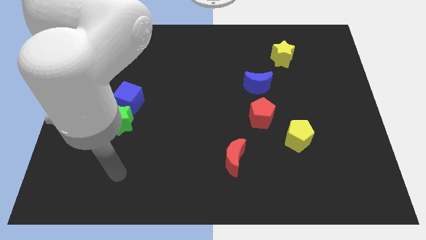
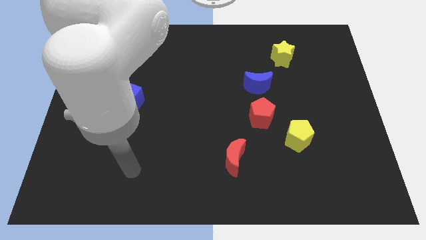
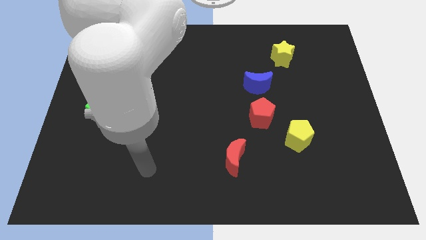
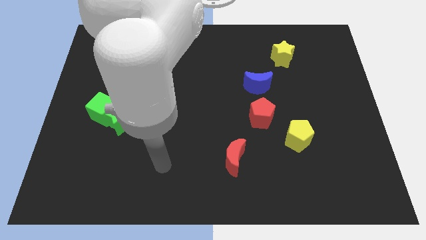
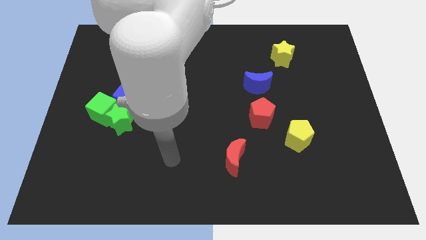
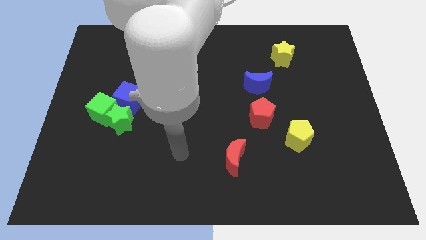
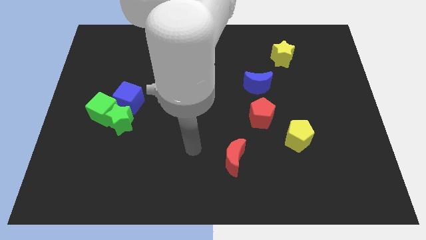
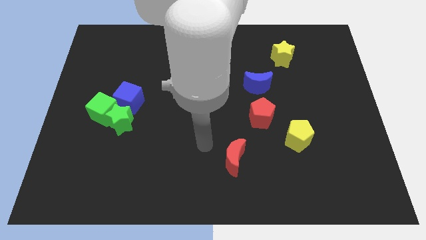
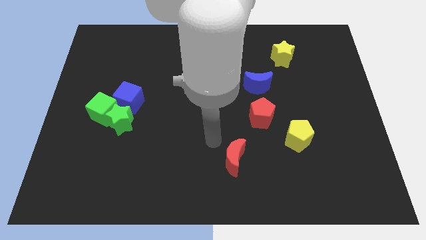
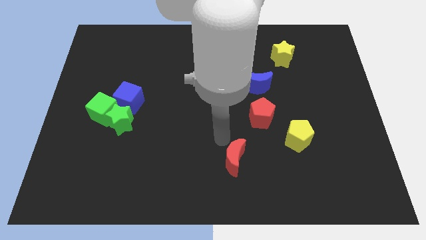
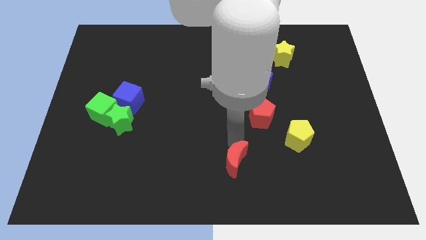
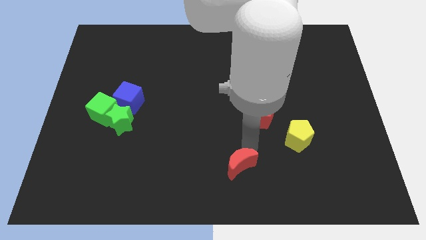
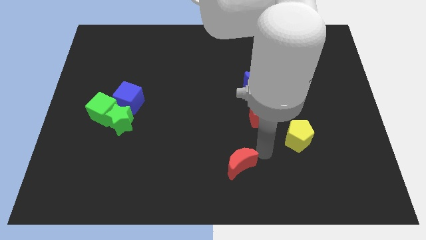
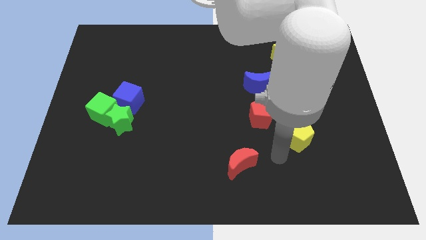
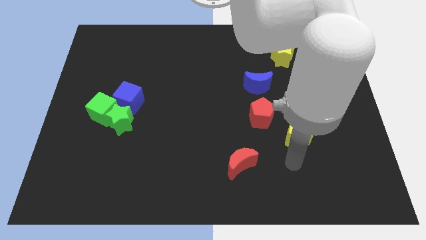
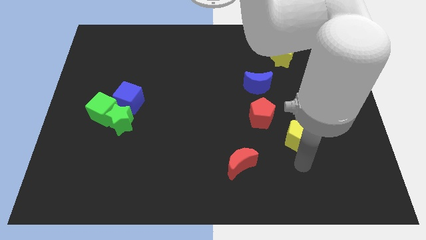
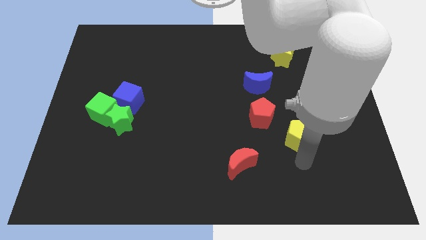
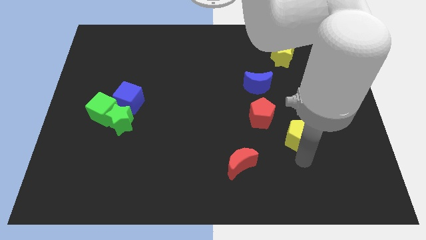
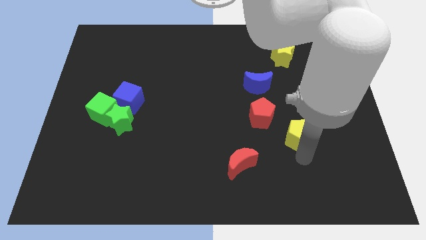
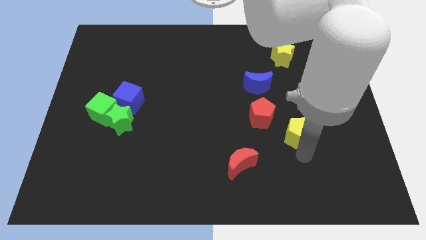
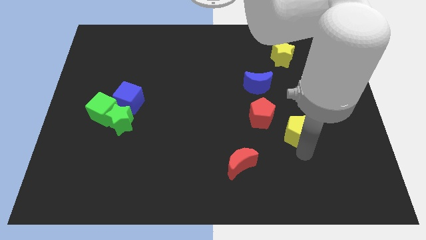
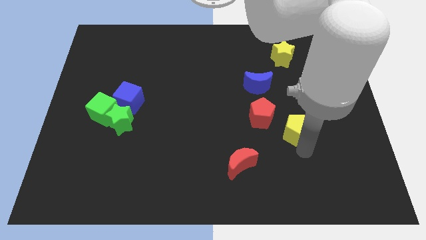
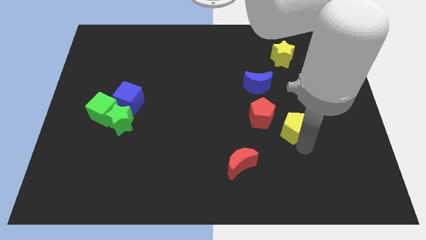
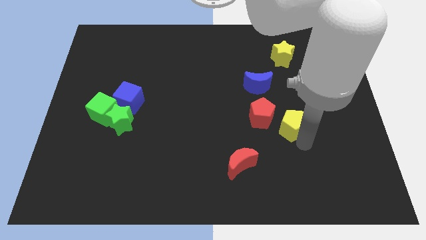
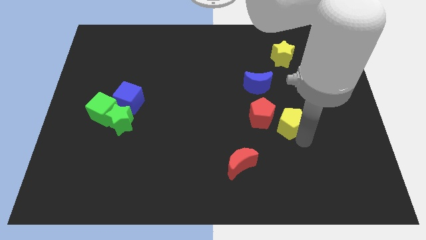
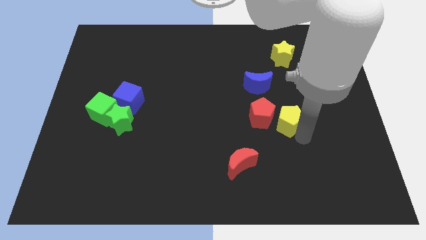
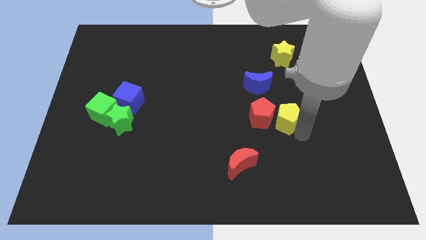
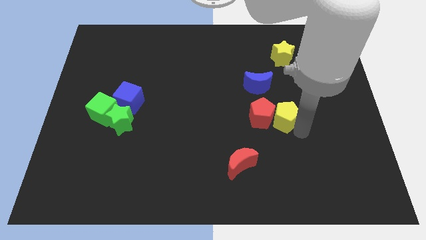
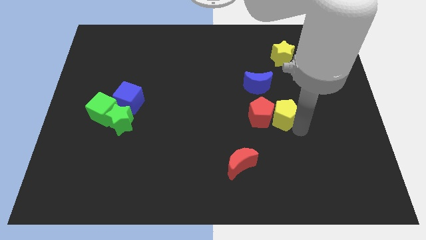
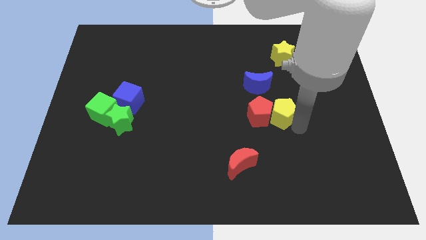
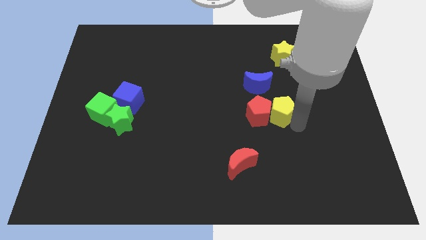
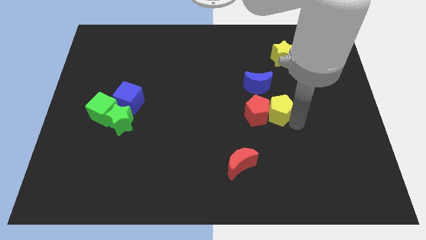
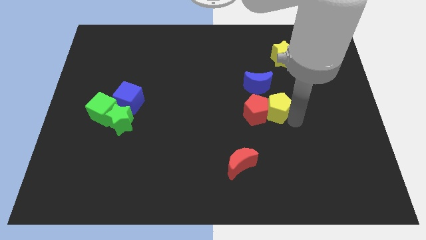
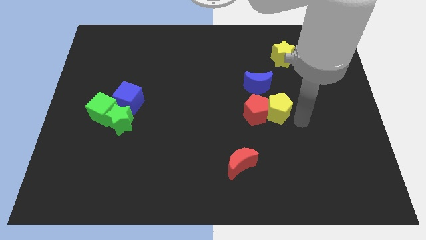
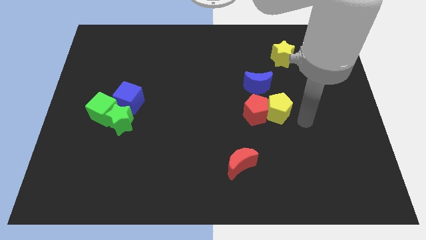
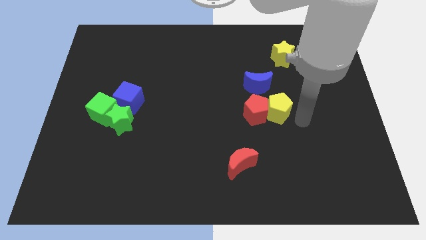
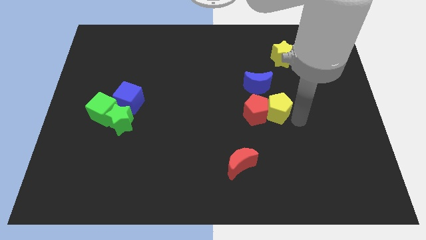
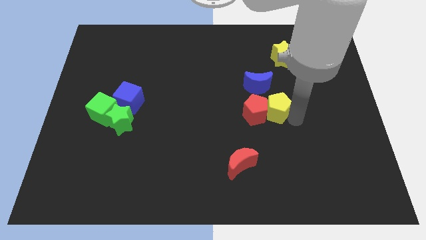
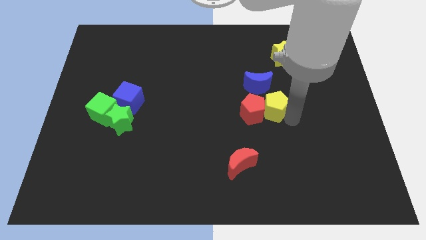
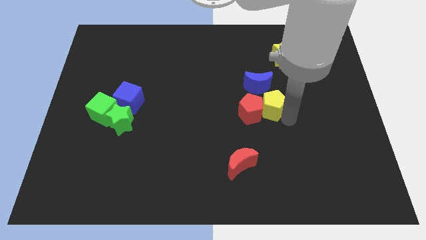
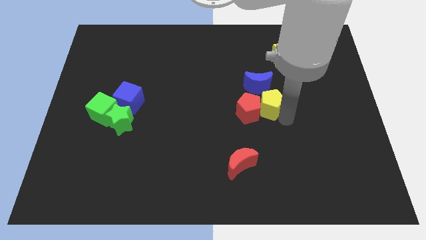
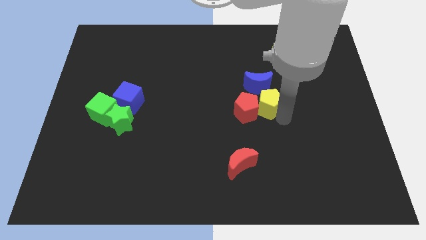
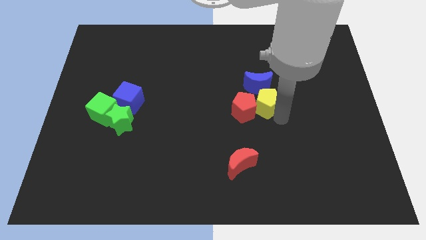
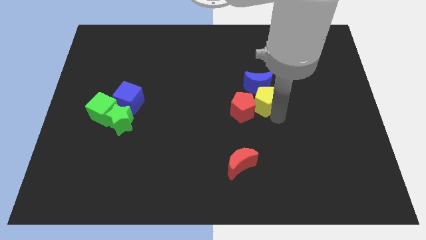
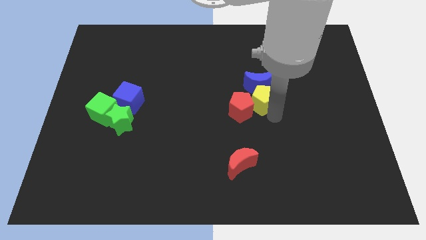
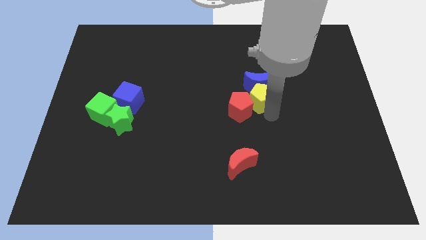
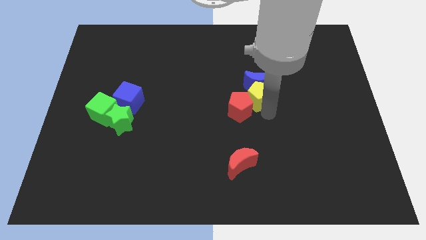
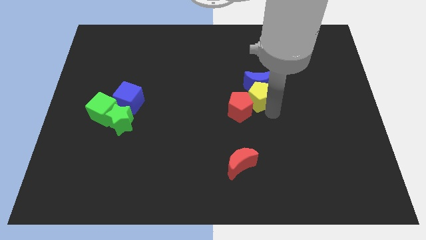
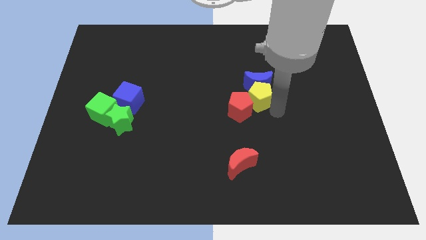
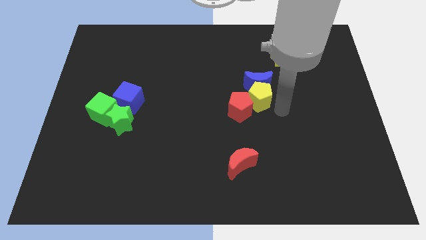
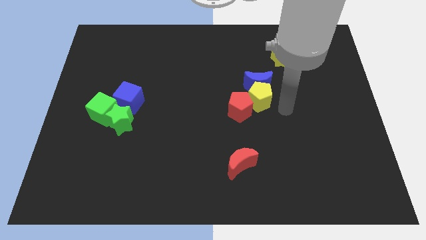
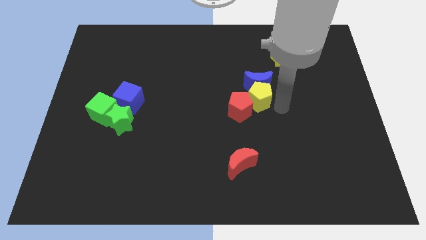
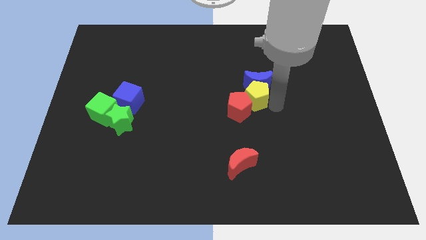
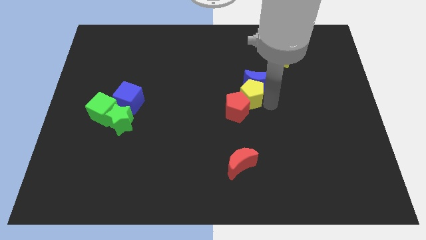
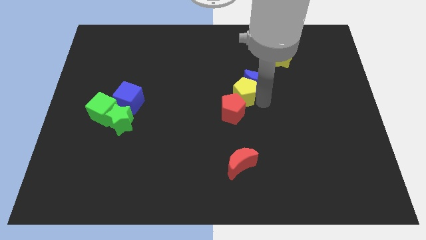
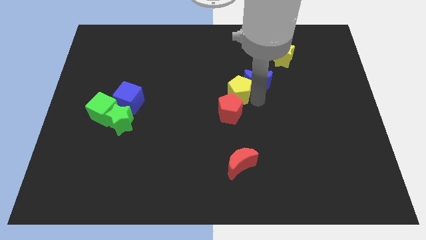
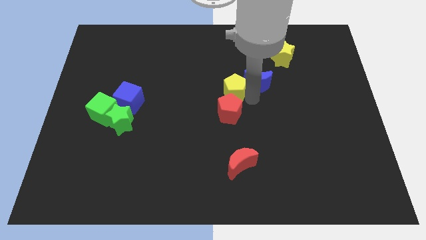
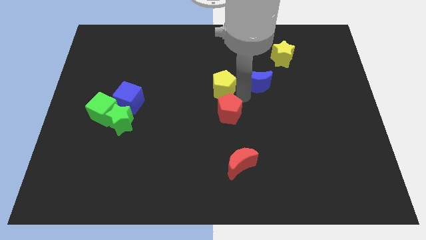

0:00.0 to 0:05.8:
slide the yellow pentagon upwards and to the left diagonally

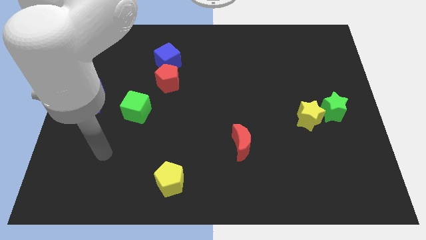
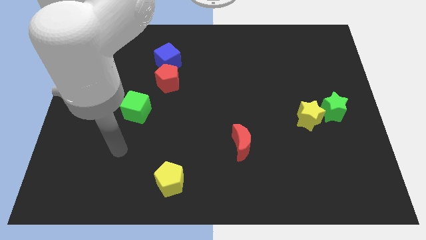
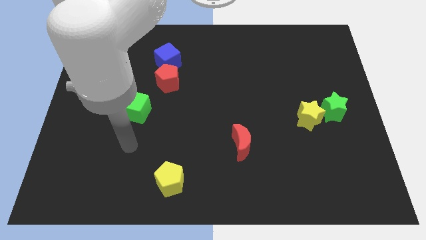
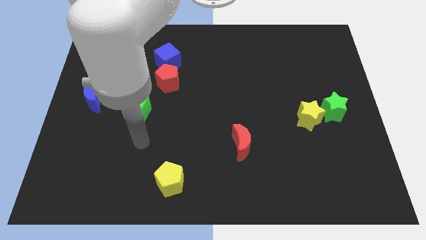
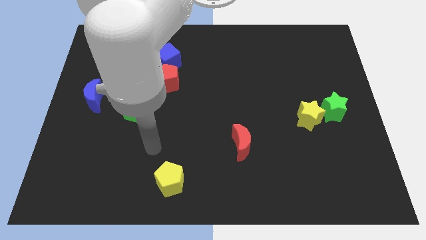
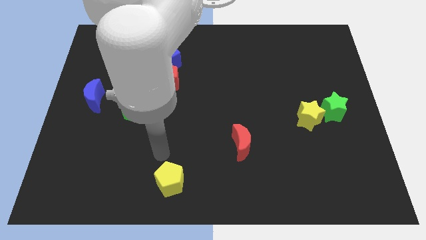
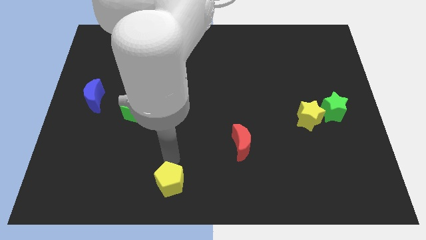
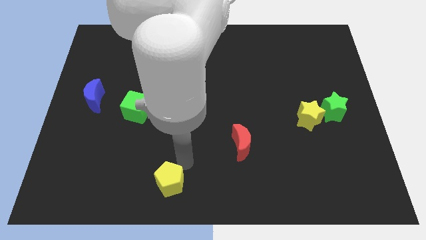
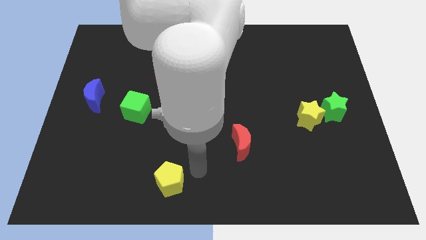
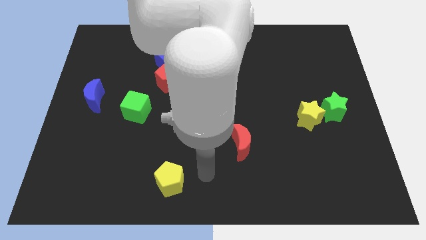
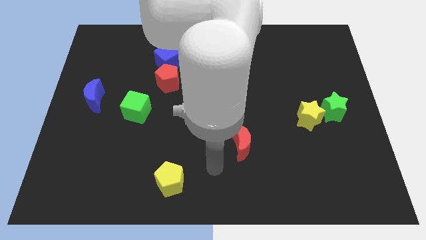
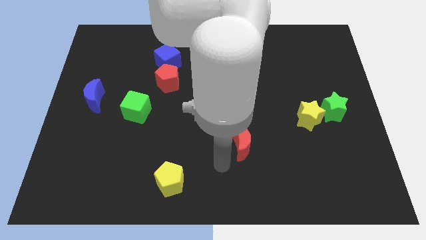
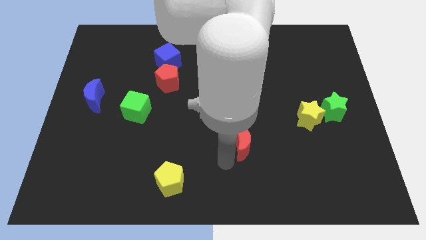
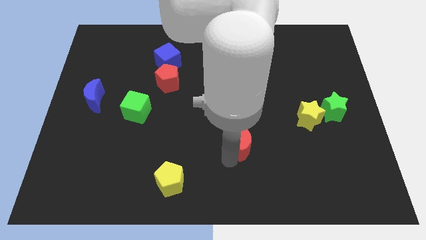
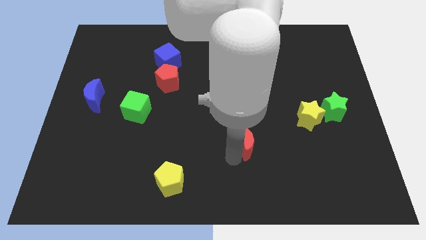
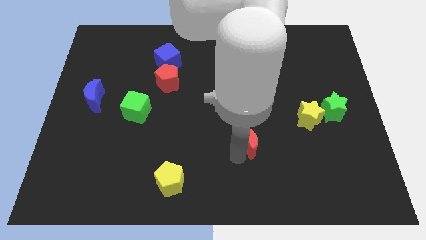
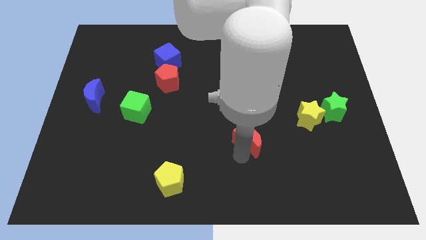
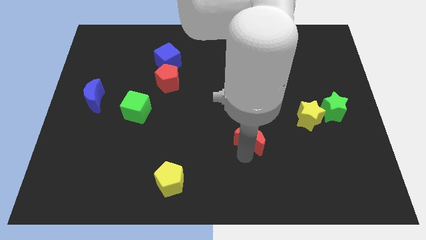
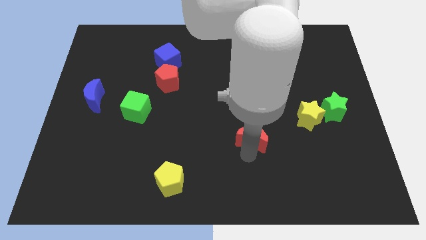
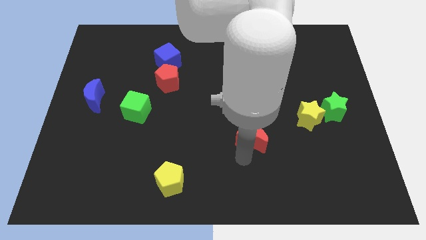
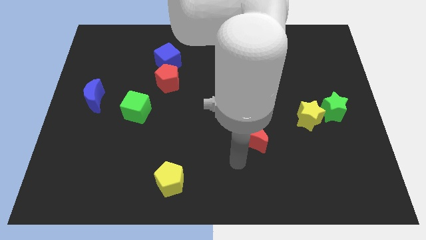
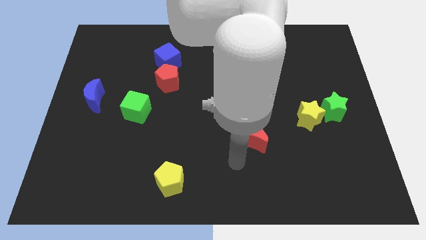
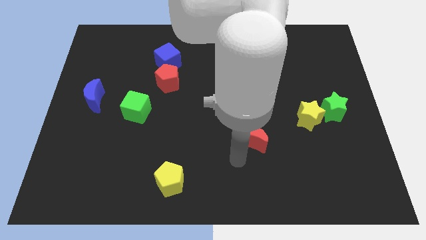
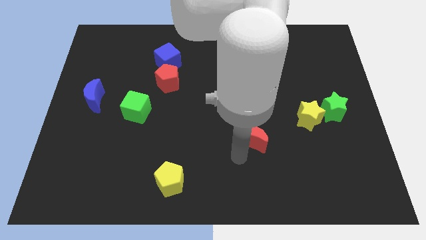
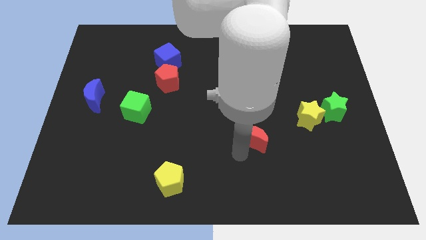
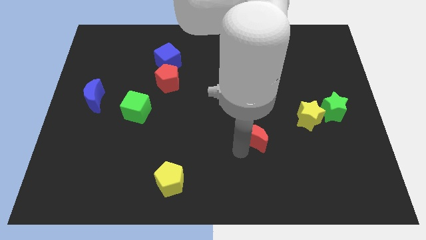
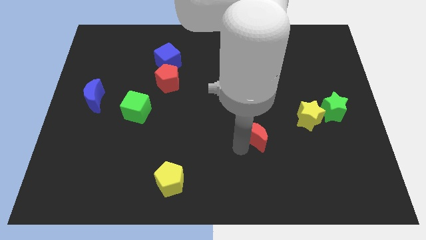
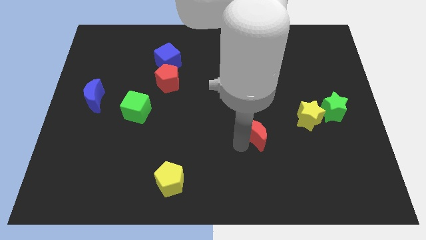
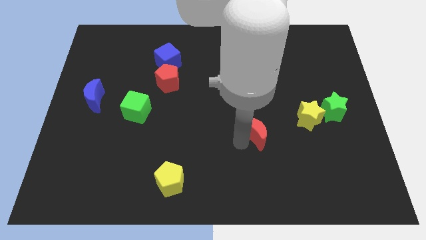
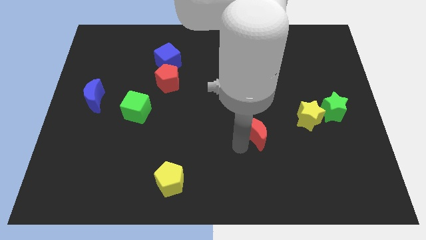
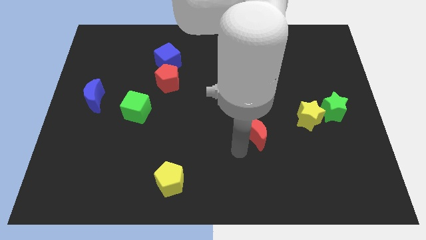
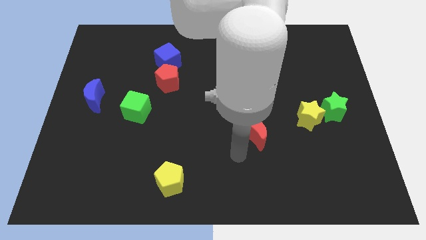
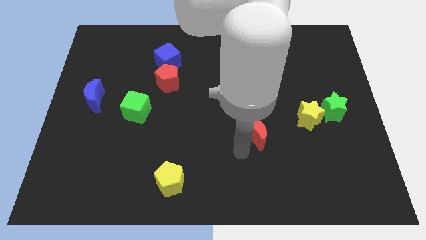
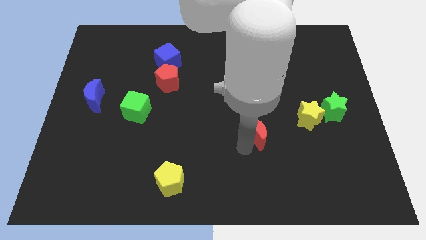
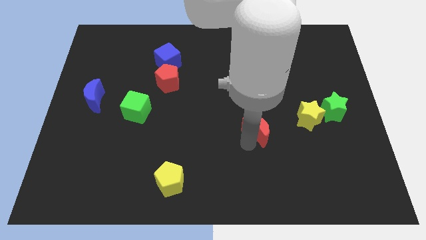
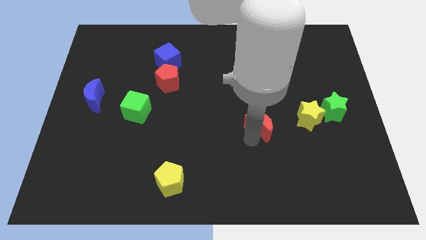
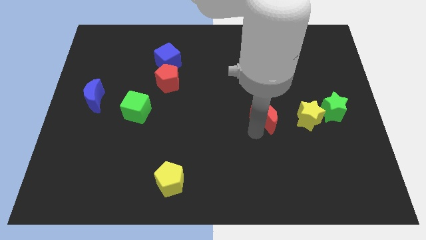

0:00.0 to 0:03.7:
slightly push the red moon upwards and then right
